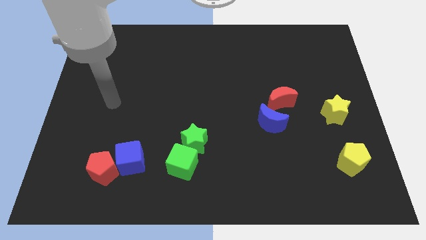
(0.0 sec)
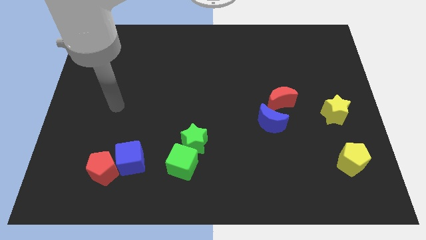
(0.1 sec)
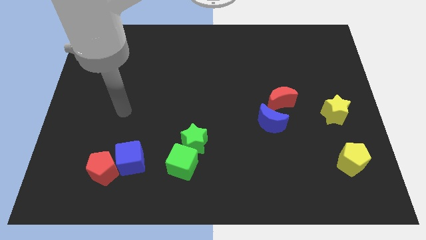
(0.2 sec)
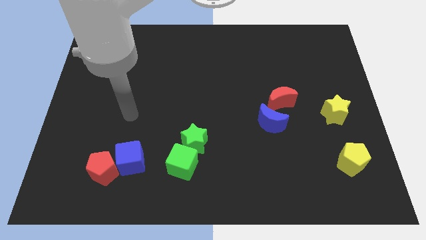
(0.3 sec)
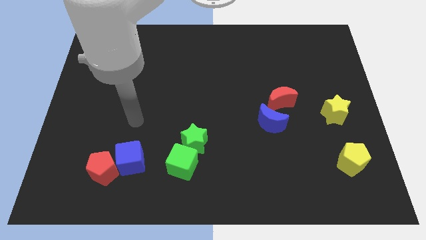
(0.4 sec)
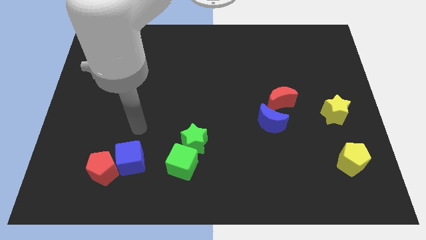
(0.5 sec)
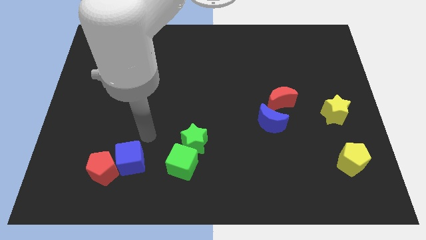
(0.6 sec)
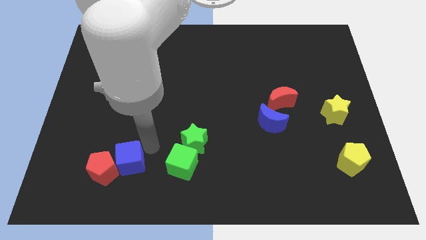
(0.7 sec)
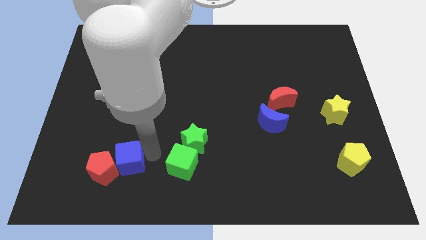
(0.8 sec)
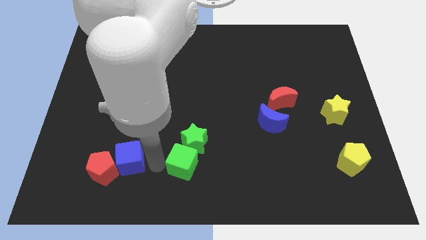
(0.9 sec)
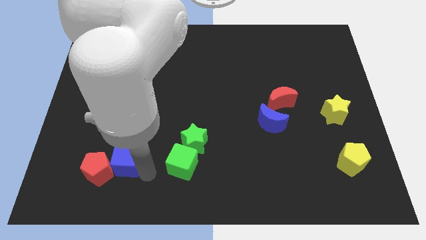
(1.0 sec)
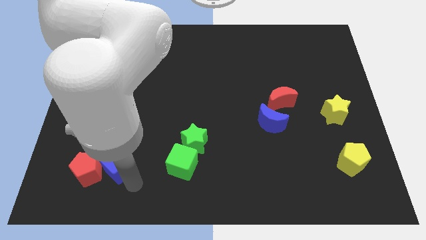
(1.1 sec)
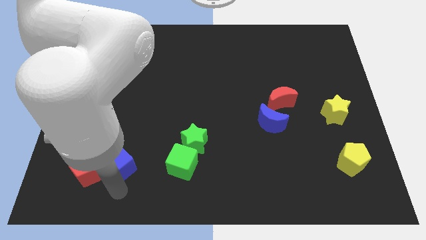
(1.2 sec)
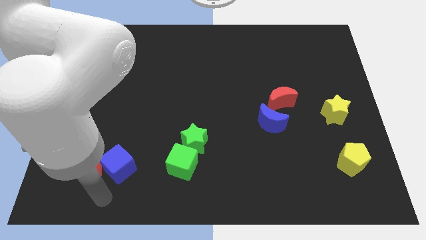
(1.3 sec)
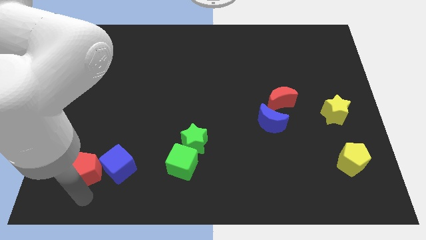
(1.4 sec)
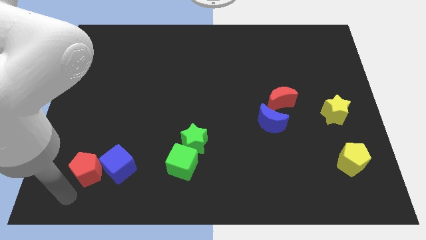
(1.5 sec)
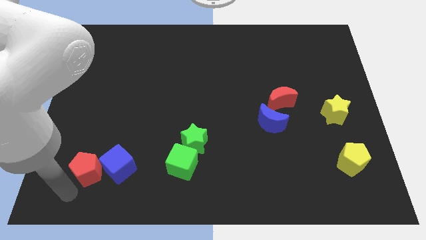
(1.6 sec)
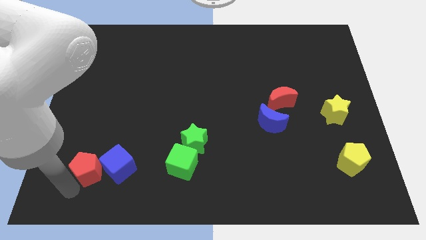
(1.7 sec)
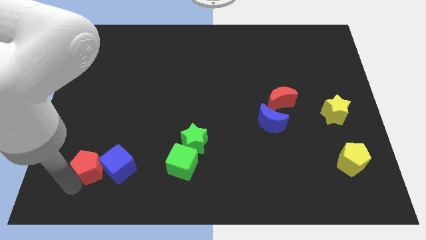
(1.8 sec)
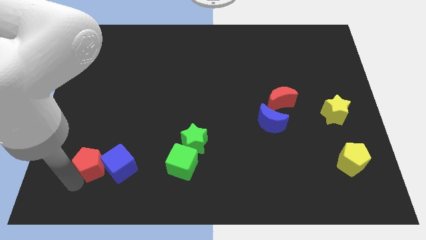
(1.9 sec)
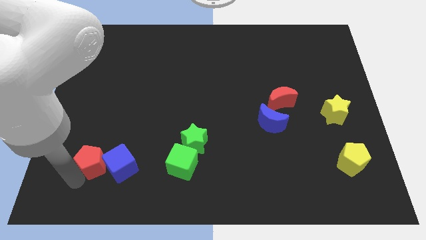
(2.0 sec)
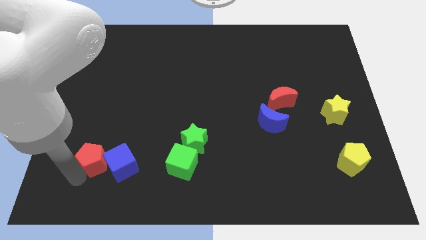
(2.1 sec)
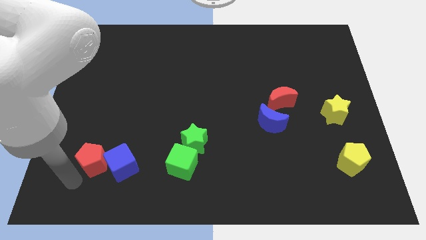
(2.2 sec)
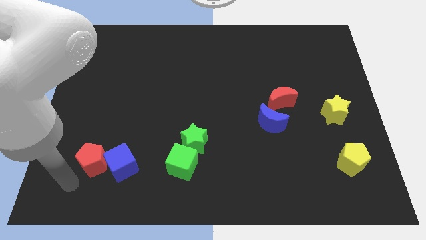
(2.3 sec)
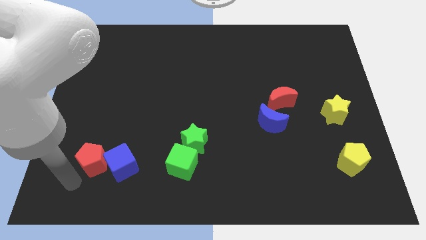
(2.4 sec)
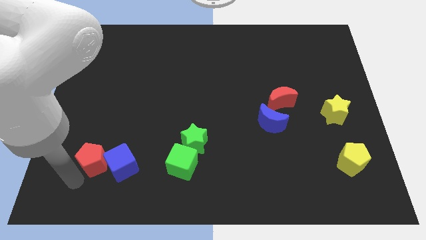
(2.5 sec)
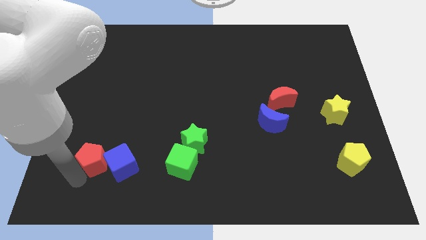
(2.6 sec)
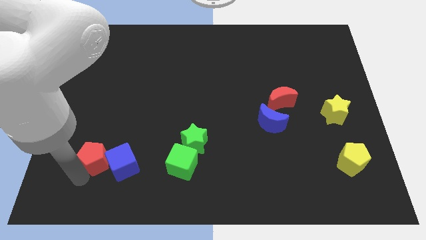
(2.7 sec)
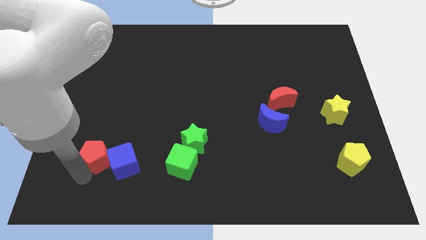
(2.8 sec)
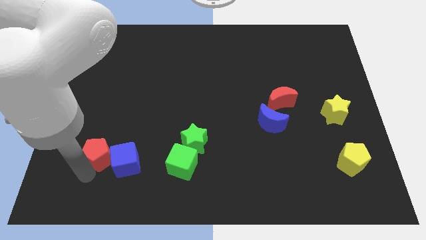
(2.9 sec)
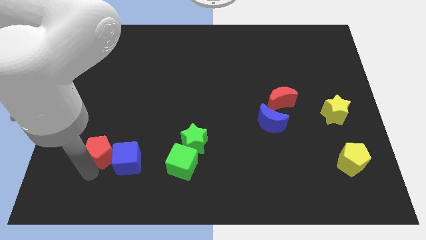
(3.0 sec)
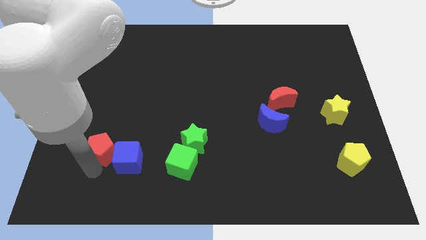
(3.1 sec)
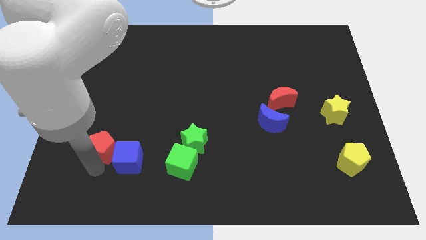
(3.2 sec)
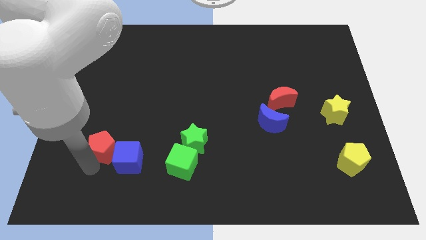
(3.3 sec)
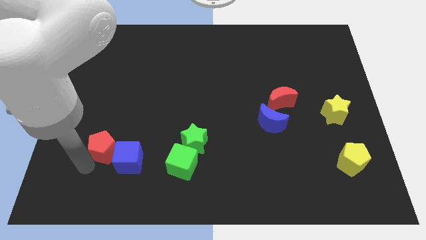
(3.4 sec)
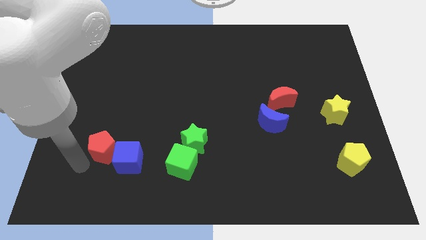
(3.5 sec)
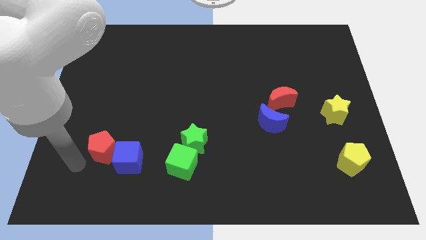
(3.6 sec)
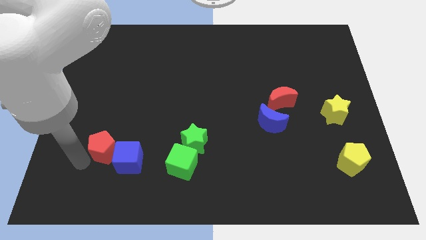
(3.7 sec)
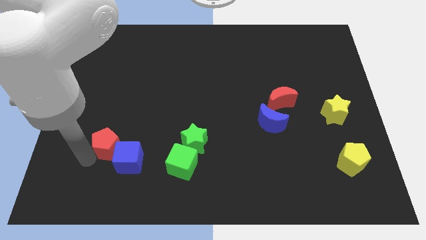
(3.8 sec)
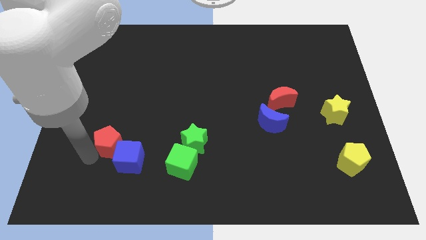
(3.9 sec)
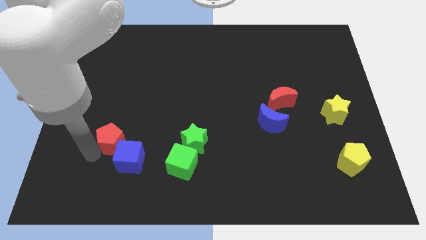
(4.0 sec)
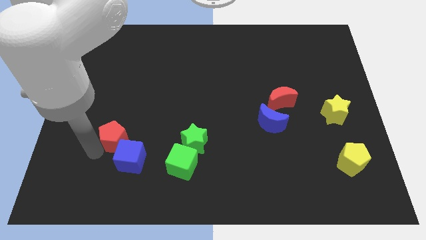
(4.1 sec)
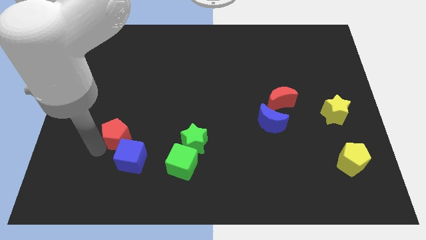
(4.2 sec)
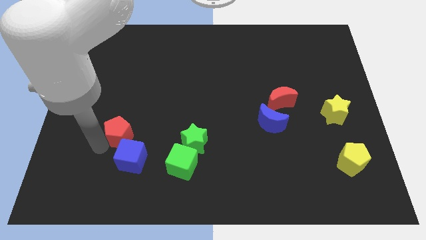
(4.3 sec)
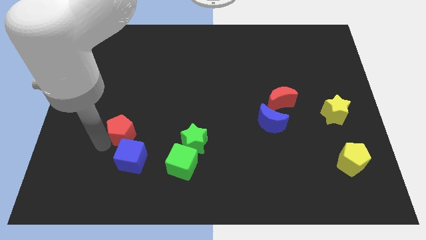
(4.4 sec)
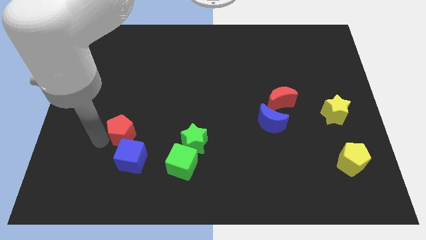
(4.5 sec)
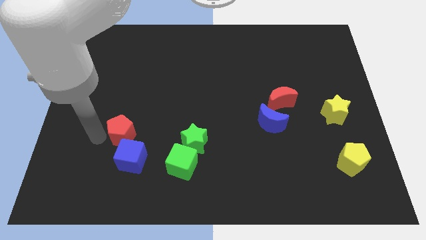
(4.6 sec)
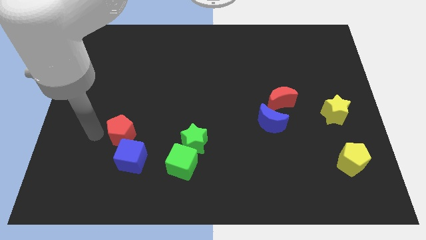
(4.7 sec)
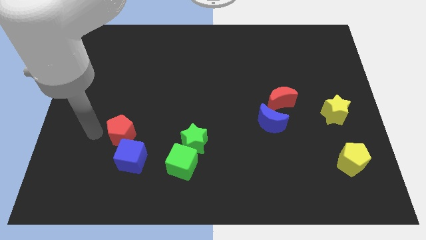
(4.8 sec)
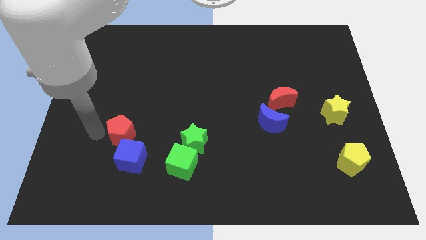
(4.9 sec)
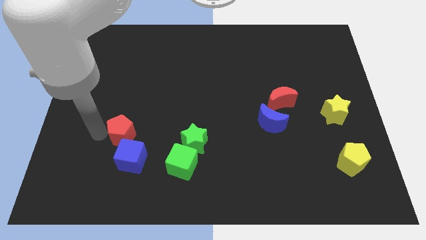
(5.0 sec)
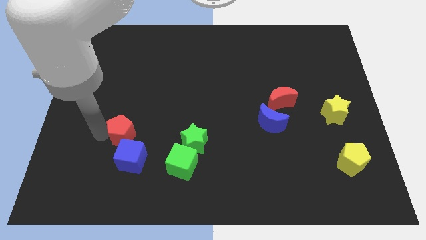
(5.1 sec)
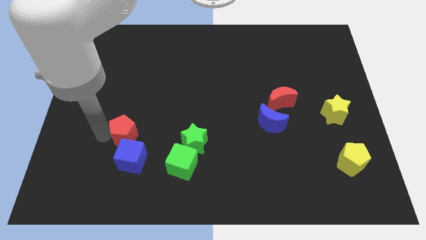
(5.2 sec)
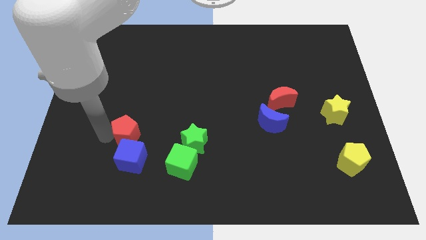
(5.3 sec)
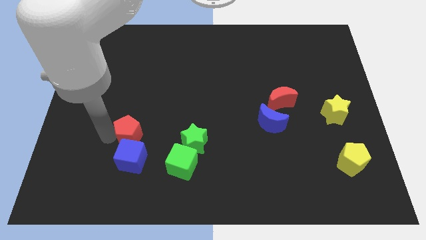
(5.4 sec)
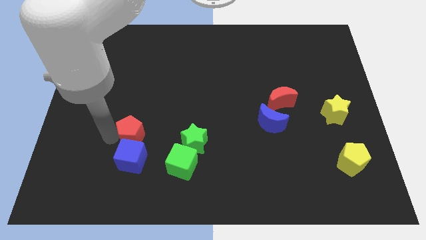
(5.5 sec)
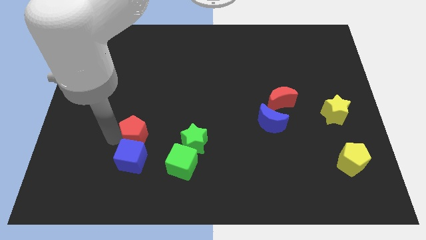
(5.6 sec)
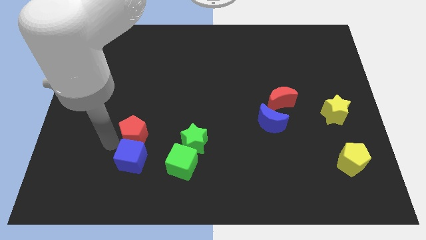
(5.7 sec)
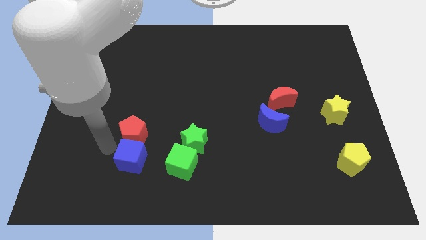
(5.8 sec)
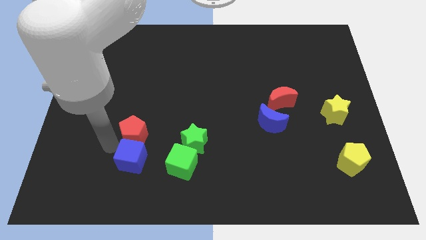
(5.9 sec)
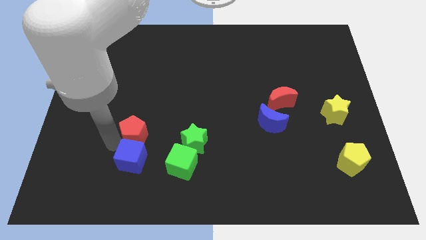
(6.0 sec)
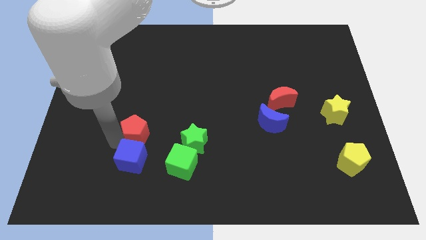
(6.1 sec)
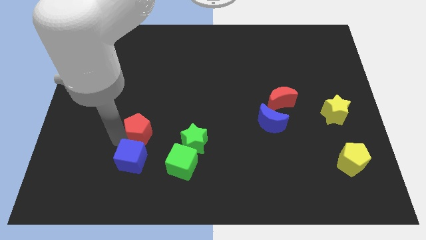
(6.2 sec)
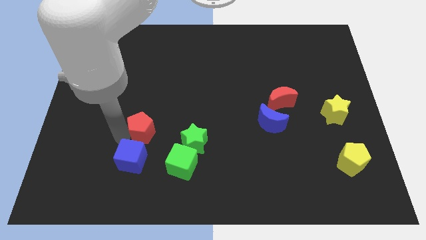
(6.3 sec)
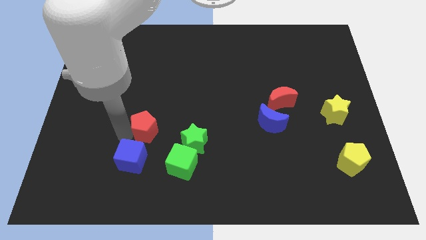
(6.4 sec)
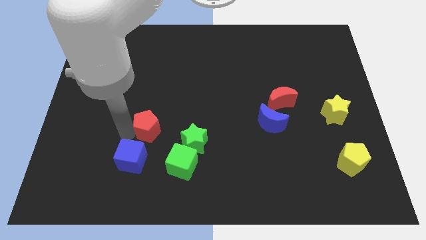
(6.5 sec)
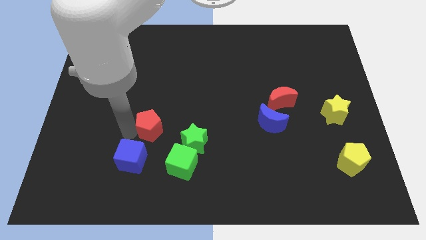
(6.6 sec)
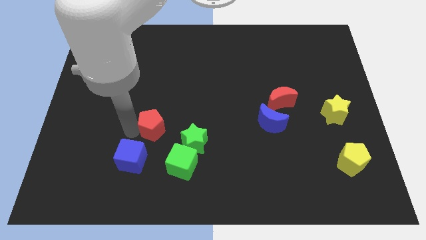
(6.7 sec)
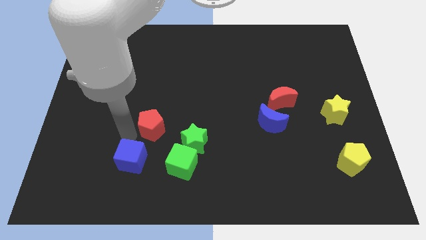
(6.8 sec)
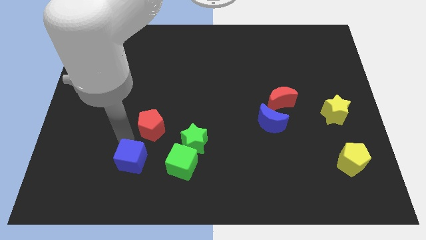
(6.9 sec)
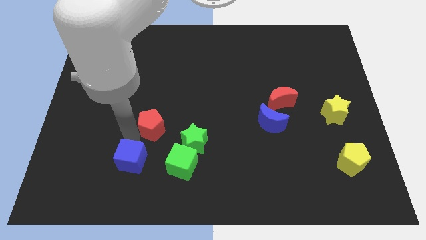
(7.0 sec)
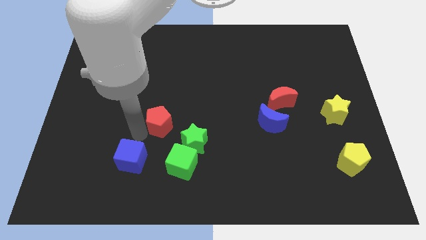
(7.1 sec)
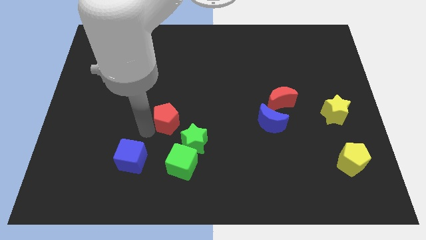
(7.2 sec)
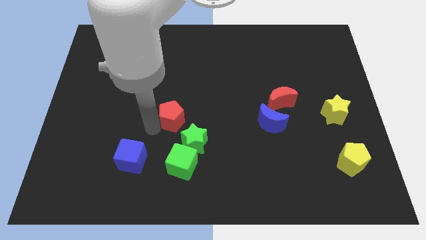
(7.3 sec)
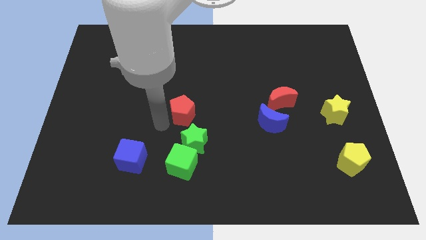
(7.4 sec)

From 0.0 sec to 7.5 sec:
move the red pentagon up and then to the right

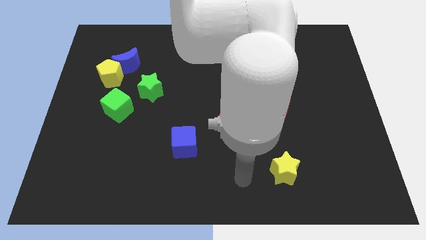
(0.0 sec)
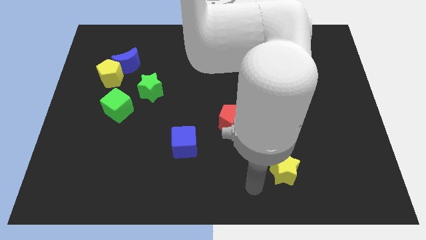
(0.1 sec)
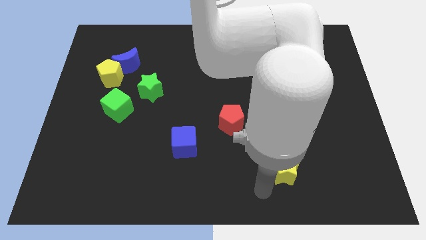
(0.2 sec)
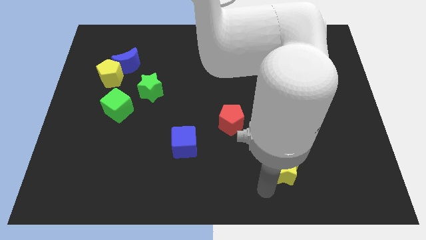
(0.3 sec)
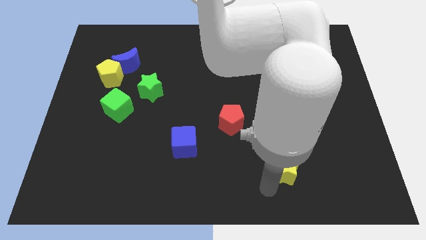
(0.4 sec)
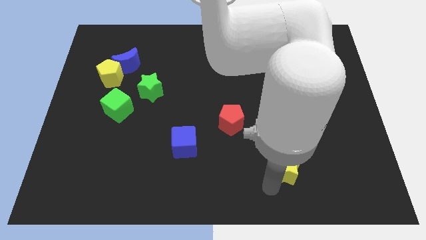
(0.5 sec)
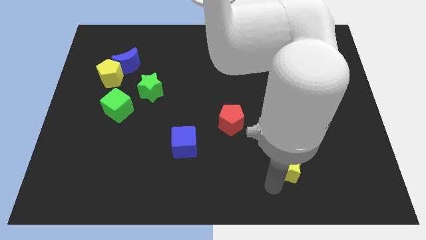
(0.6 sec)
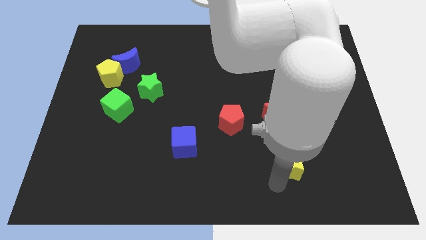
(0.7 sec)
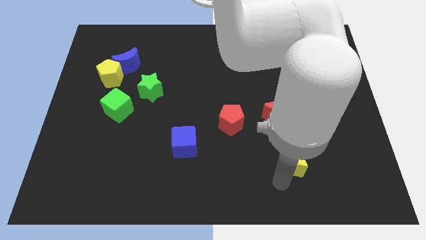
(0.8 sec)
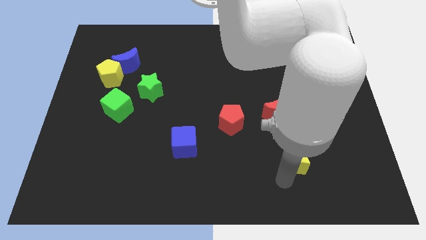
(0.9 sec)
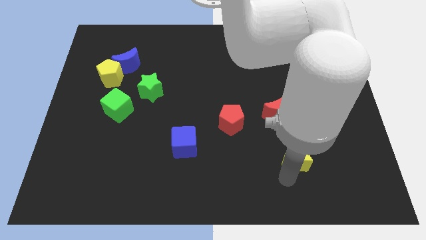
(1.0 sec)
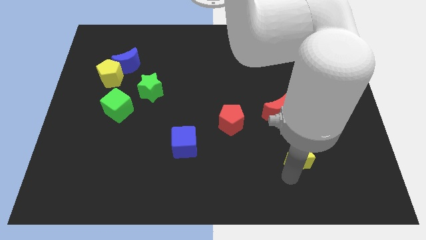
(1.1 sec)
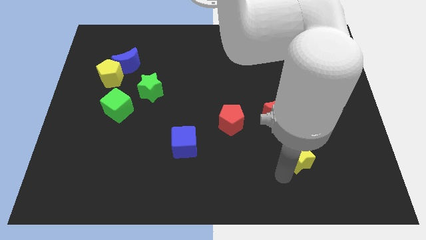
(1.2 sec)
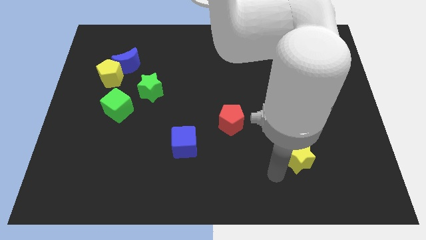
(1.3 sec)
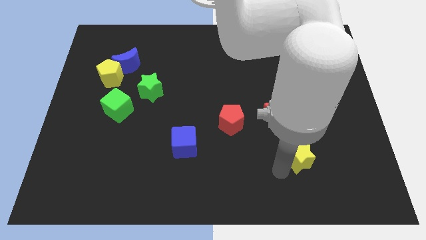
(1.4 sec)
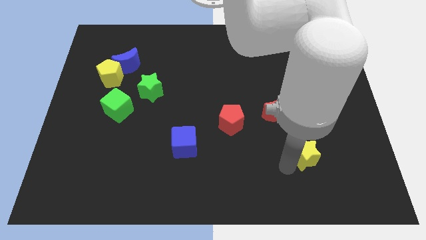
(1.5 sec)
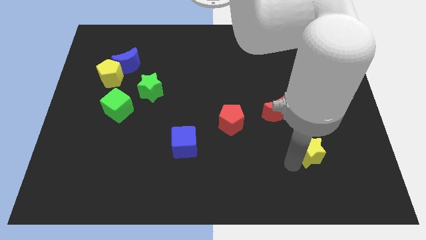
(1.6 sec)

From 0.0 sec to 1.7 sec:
move the yellow star upwards and right diagonally slightly
